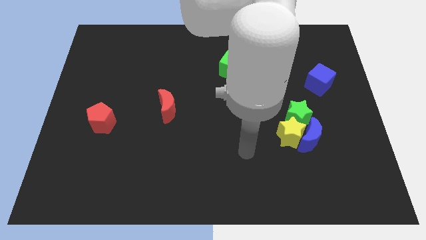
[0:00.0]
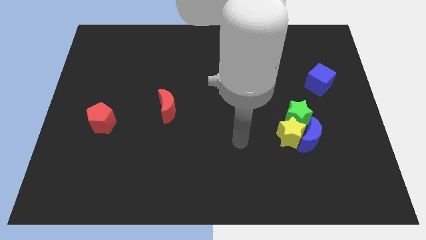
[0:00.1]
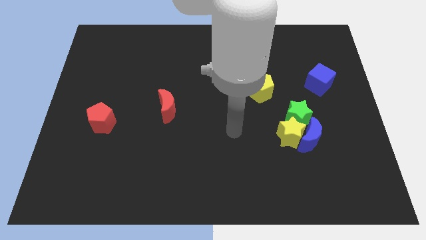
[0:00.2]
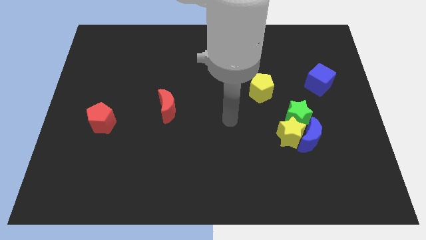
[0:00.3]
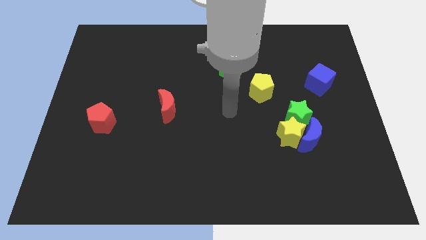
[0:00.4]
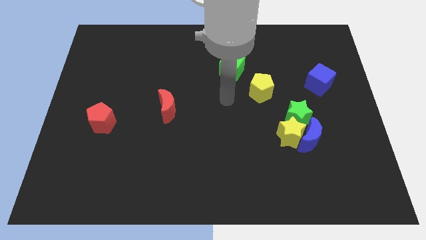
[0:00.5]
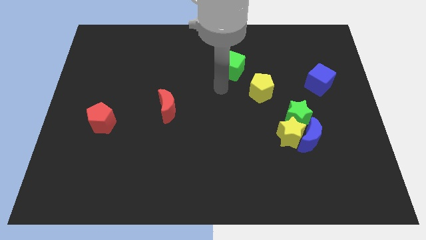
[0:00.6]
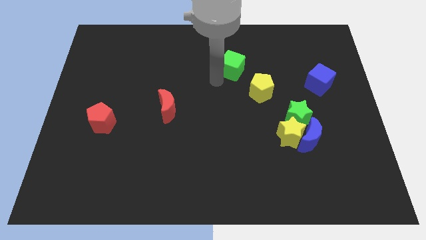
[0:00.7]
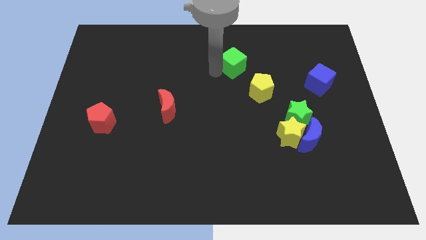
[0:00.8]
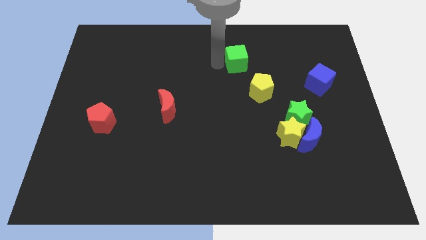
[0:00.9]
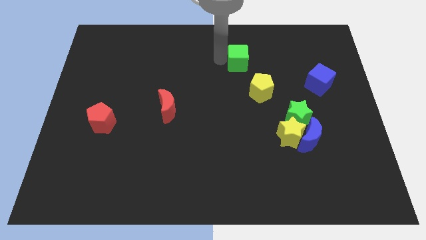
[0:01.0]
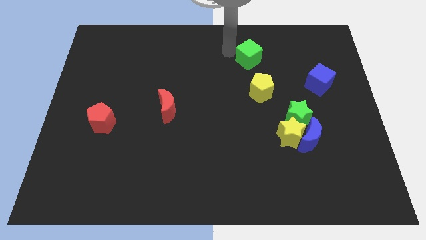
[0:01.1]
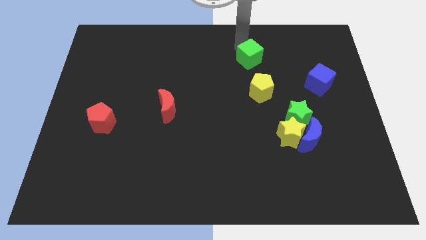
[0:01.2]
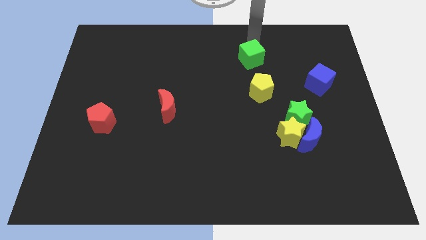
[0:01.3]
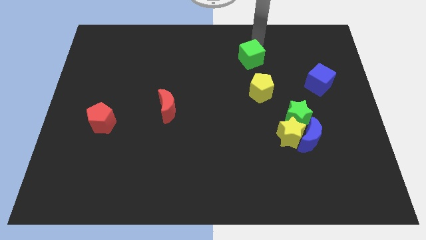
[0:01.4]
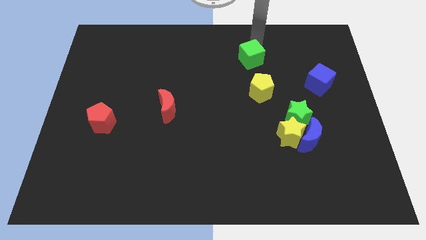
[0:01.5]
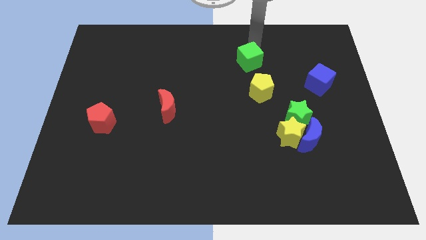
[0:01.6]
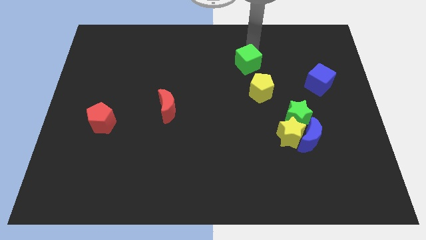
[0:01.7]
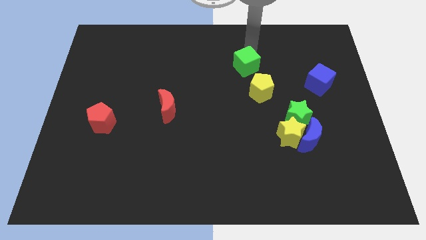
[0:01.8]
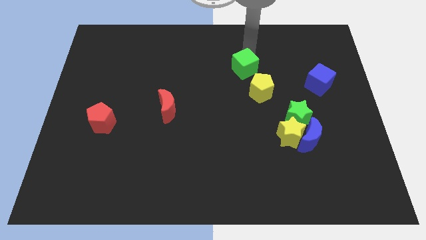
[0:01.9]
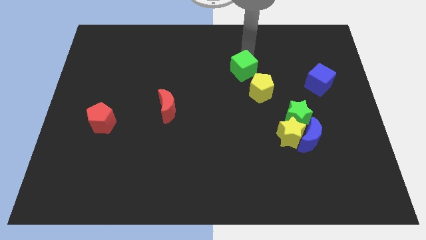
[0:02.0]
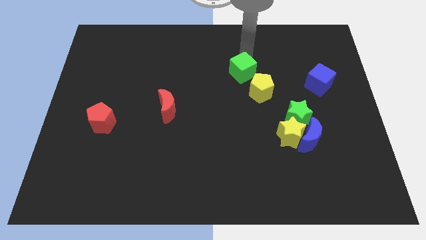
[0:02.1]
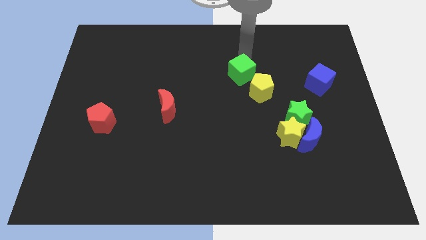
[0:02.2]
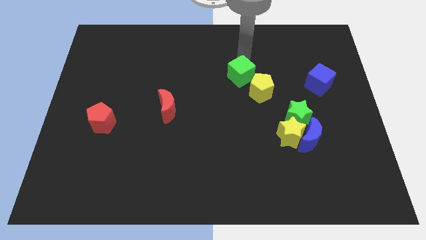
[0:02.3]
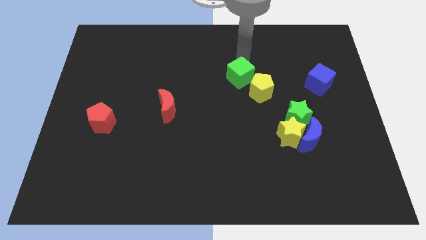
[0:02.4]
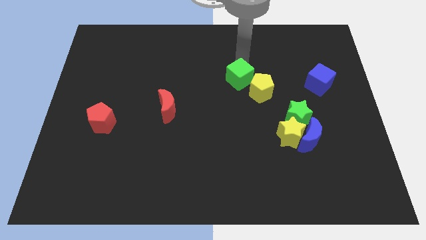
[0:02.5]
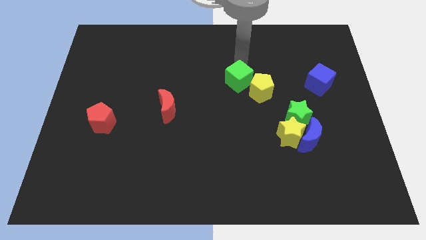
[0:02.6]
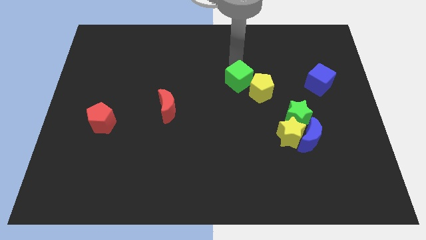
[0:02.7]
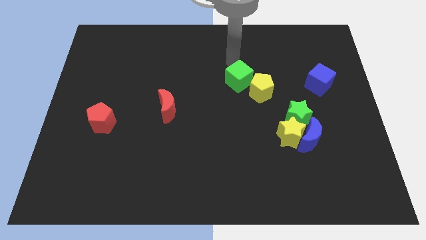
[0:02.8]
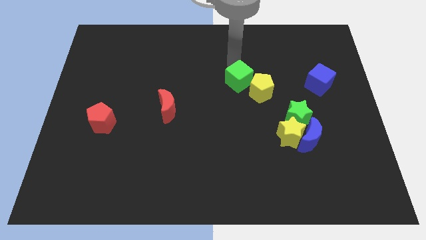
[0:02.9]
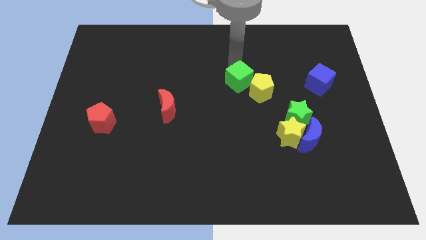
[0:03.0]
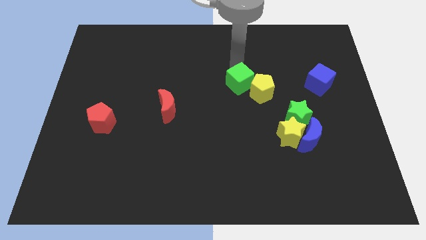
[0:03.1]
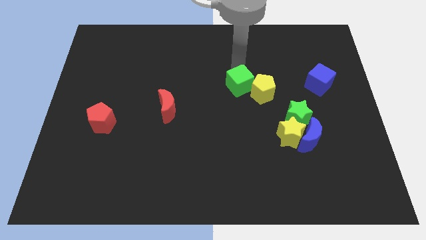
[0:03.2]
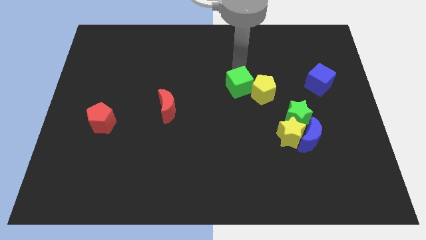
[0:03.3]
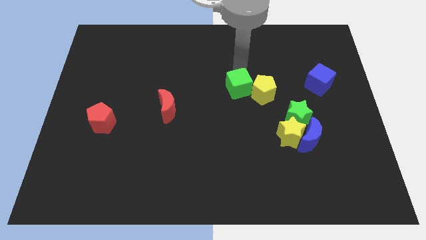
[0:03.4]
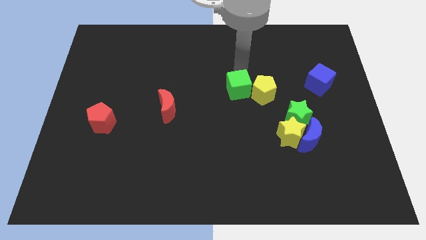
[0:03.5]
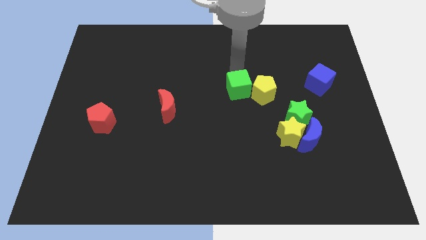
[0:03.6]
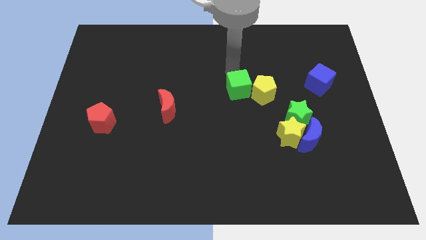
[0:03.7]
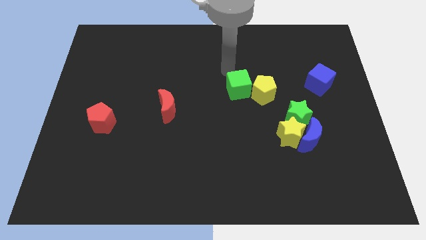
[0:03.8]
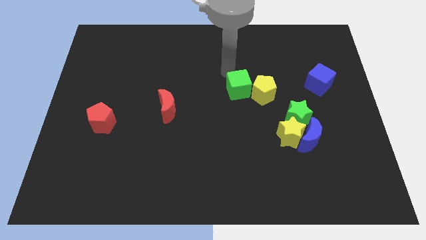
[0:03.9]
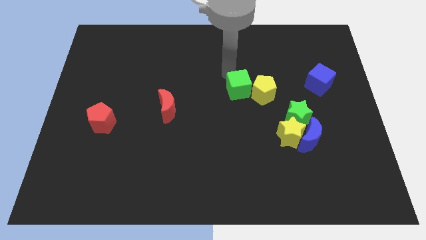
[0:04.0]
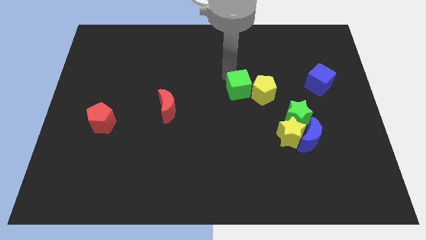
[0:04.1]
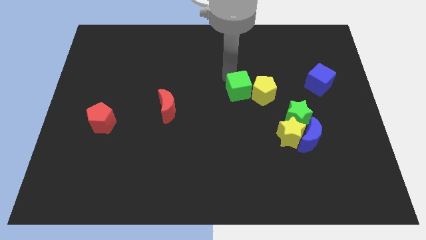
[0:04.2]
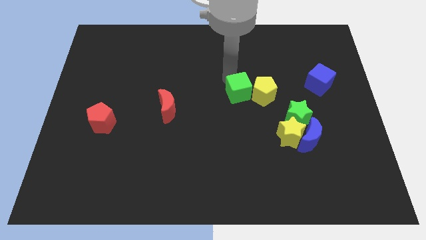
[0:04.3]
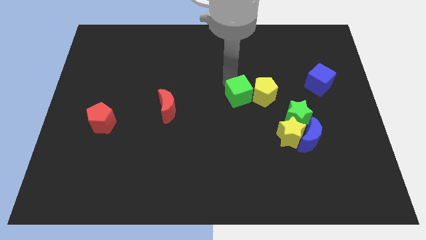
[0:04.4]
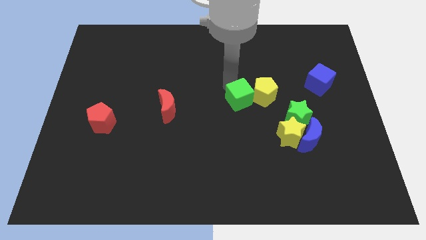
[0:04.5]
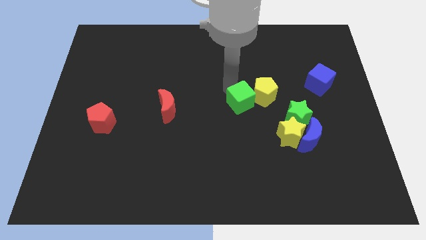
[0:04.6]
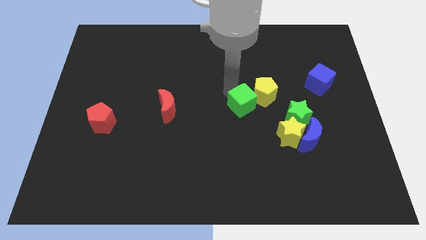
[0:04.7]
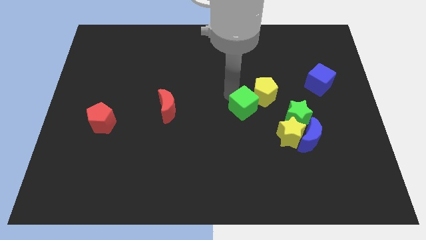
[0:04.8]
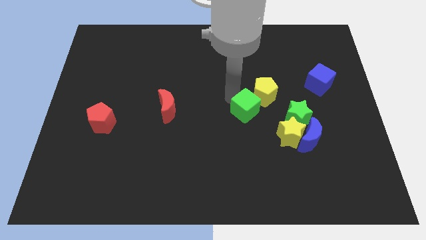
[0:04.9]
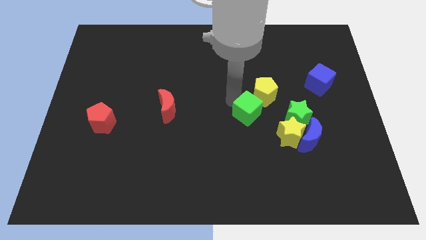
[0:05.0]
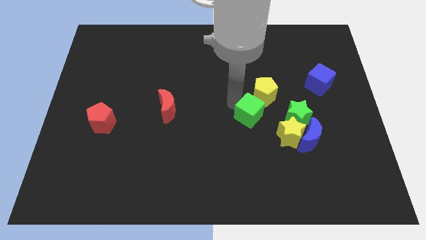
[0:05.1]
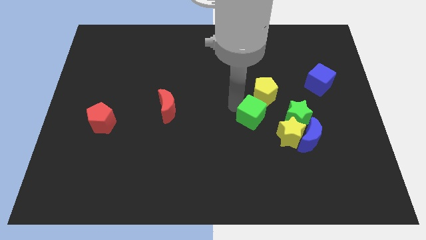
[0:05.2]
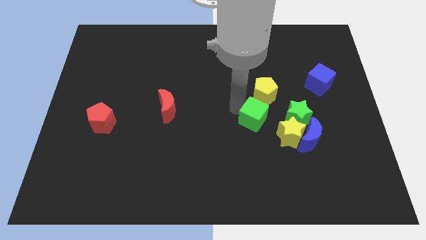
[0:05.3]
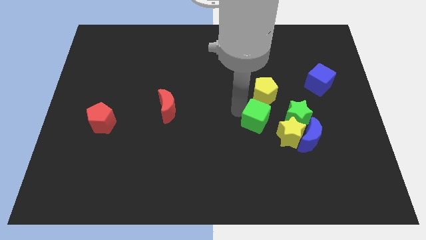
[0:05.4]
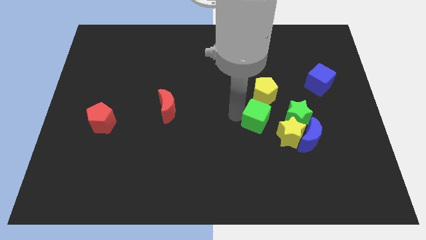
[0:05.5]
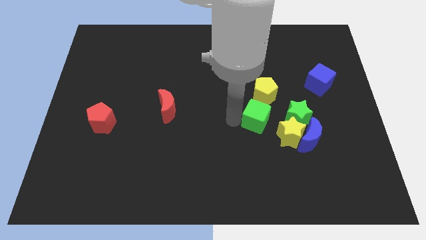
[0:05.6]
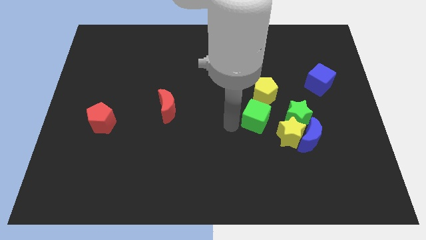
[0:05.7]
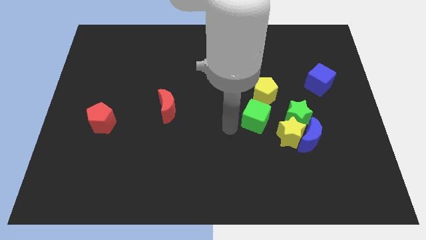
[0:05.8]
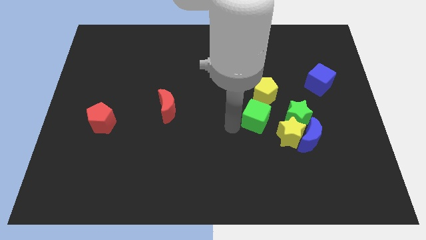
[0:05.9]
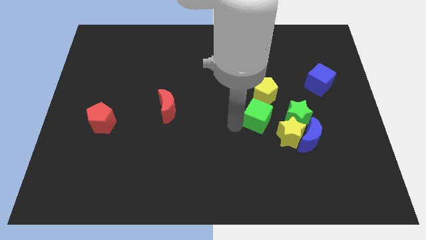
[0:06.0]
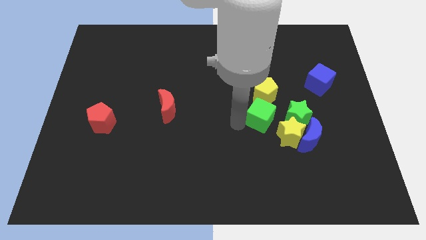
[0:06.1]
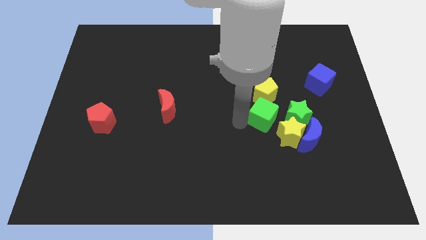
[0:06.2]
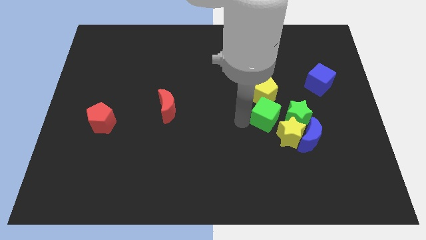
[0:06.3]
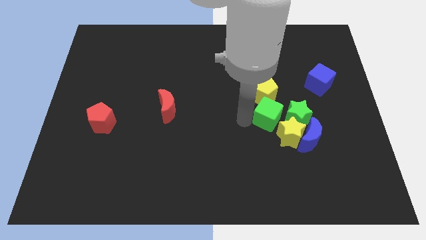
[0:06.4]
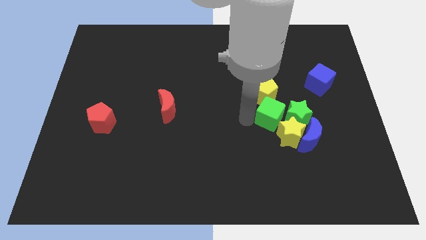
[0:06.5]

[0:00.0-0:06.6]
push the green cube to the green star
